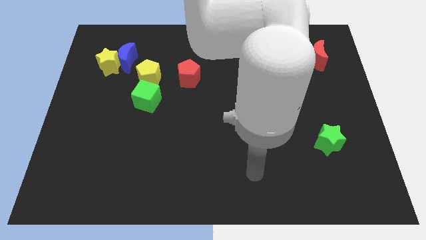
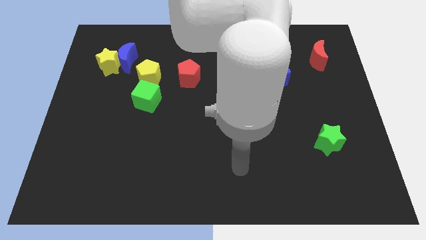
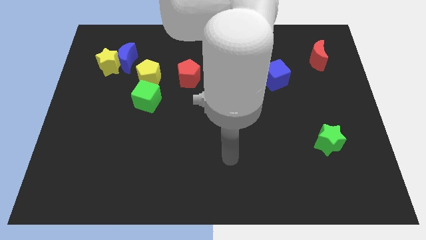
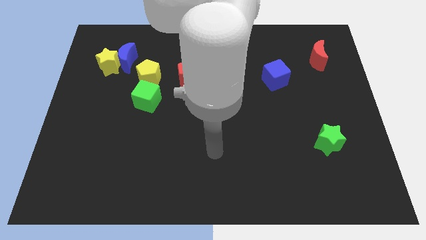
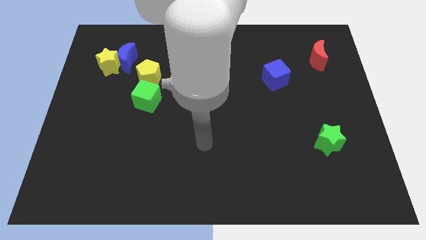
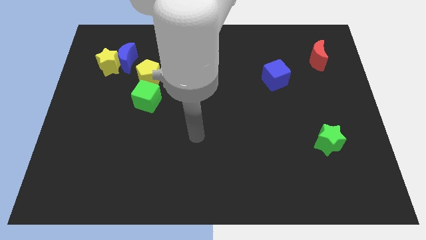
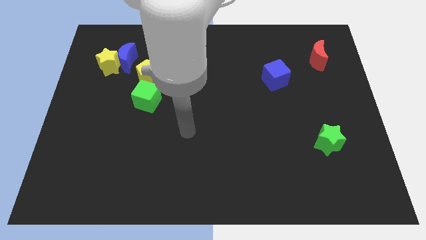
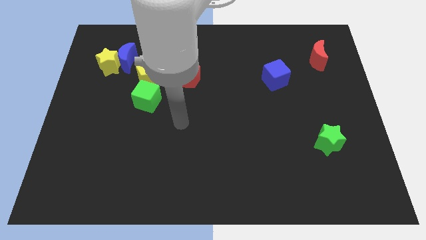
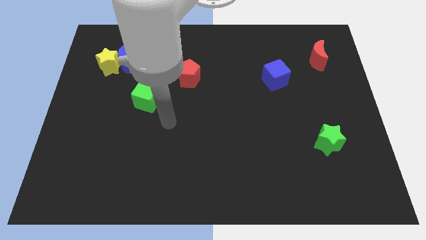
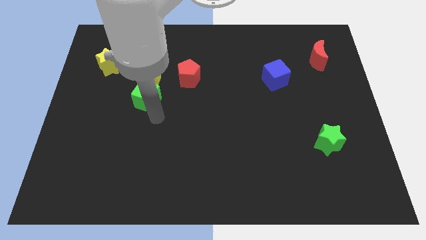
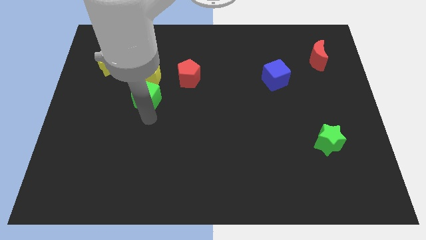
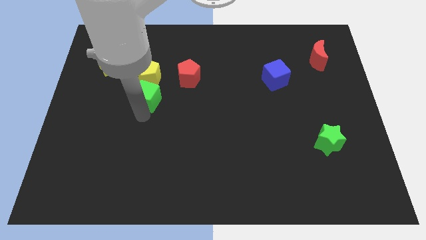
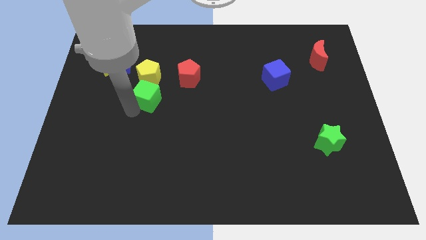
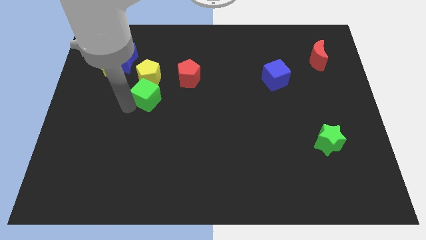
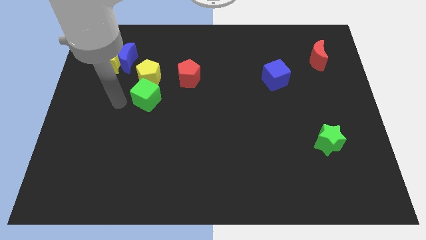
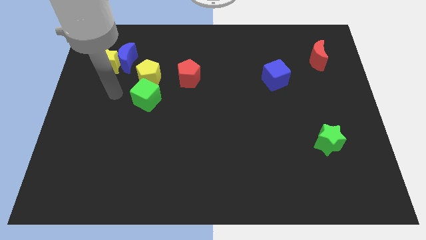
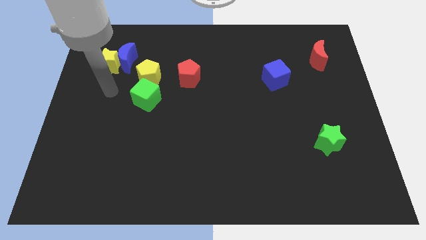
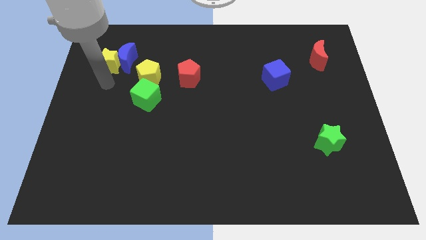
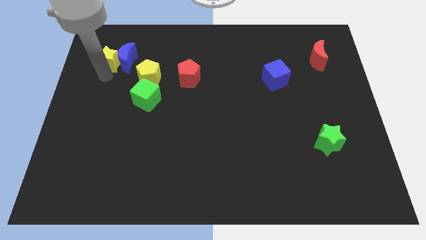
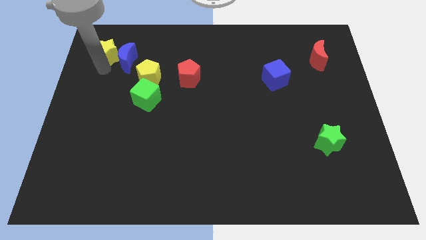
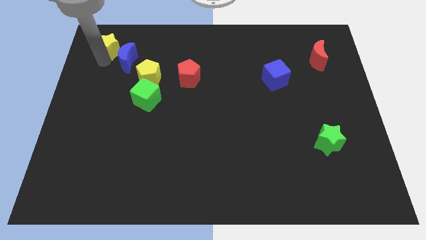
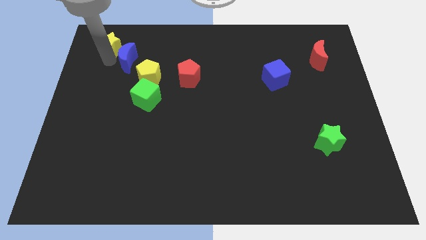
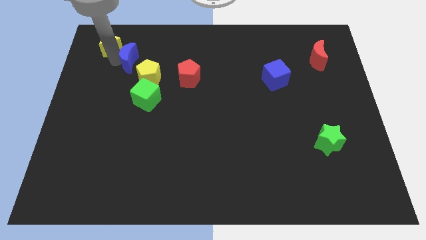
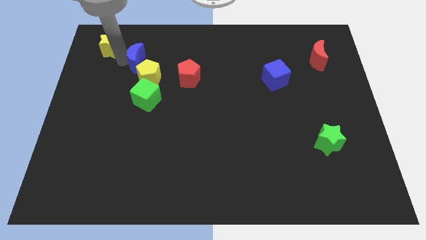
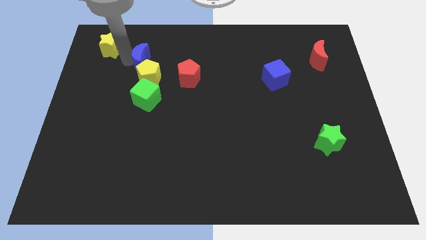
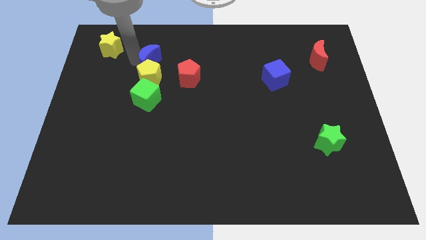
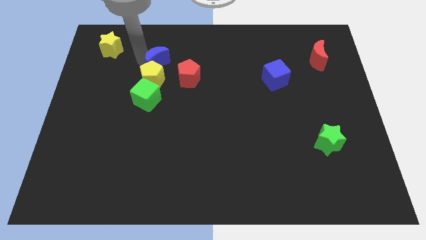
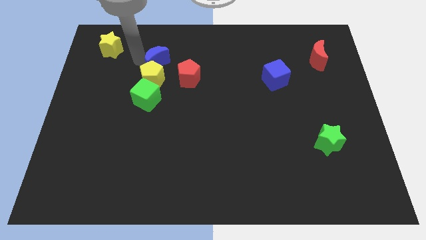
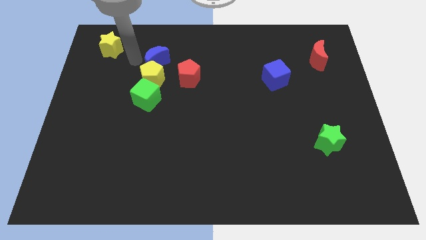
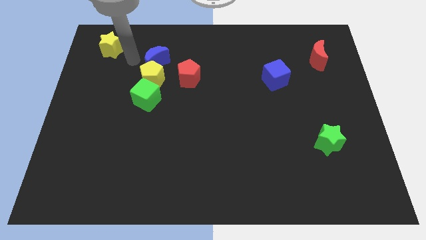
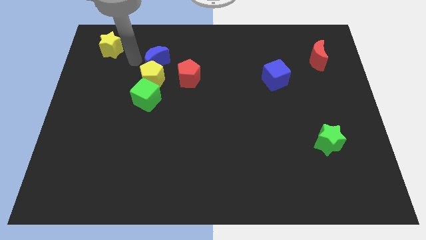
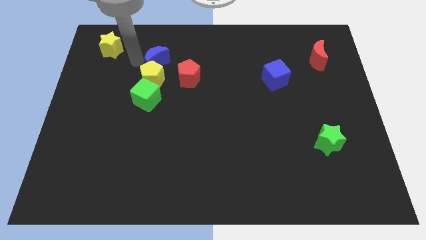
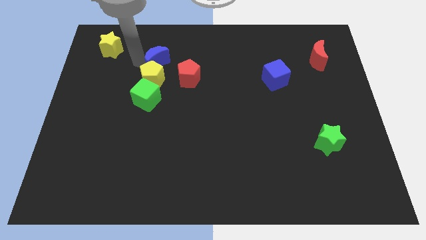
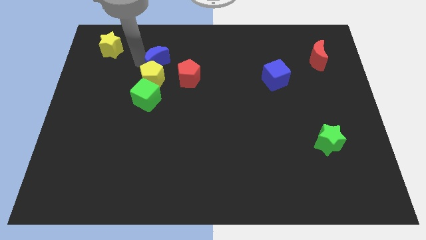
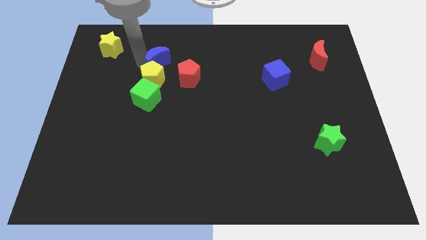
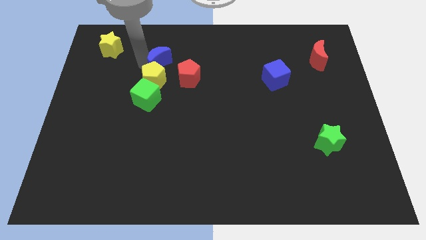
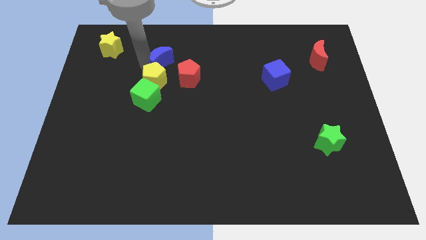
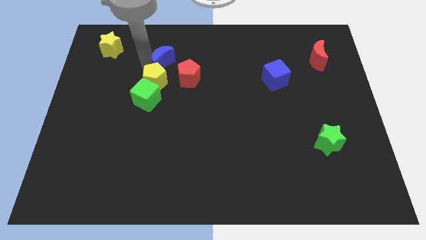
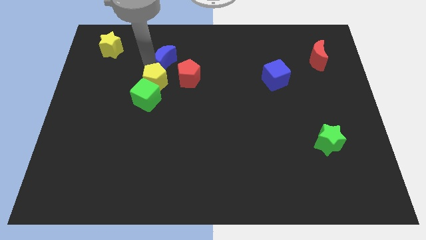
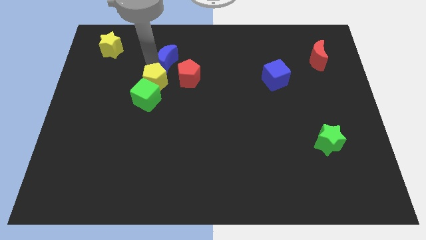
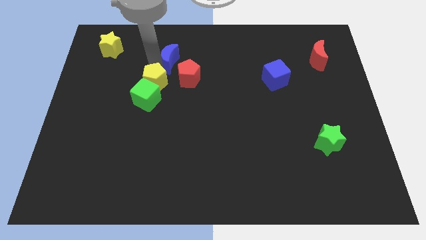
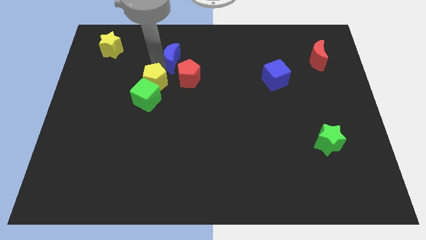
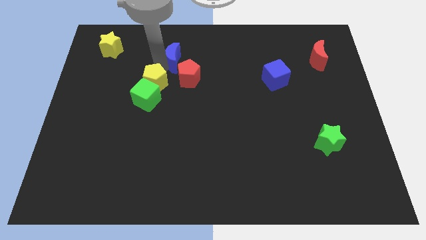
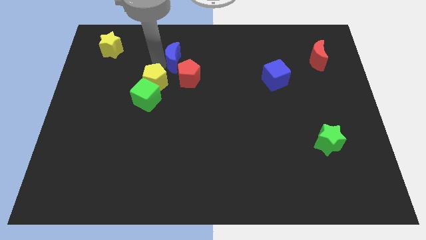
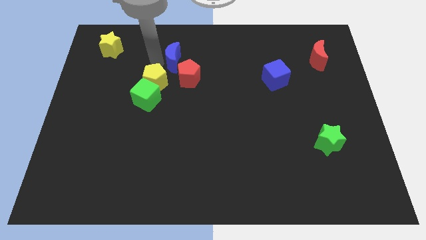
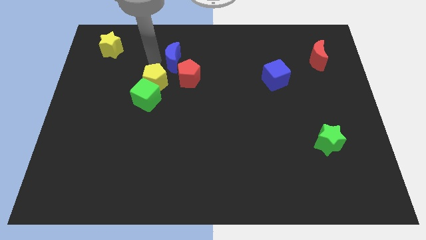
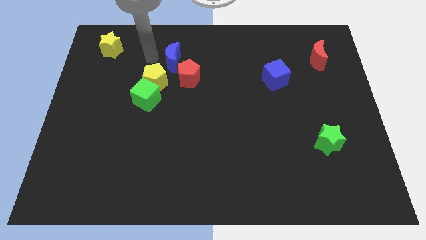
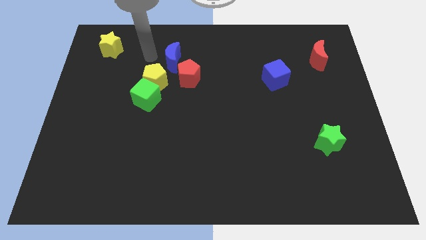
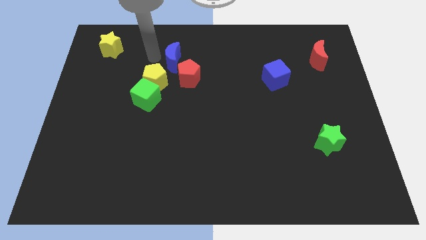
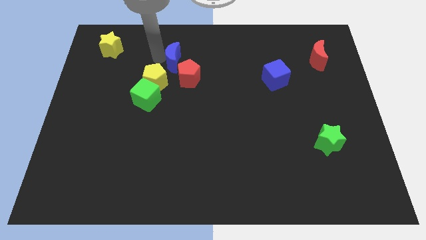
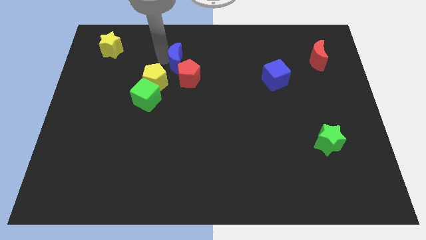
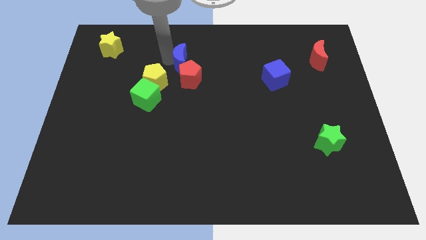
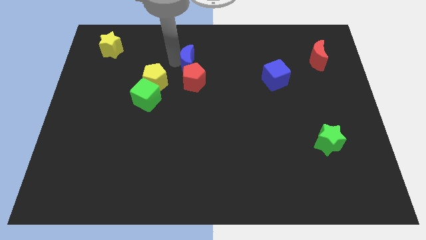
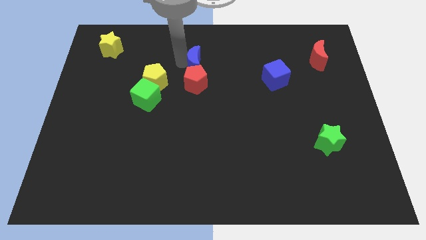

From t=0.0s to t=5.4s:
push the blue moon diagonally up and to the right of the red pentagon

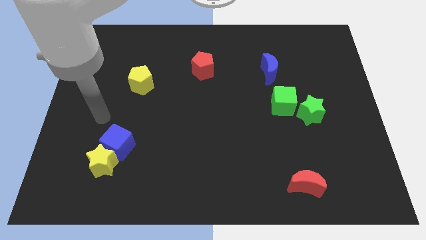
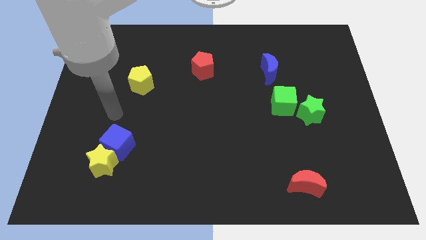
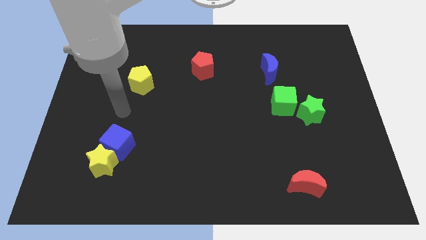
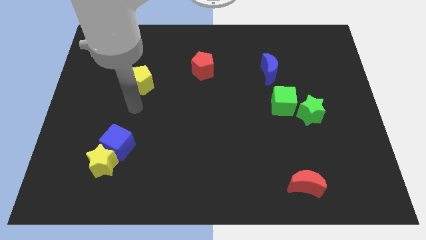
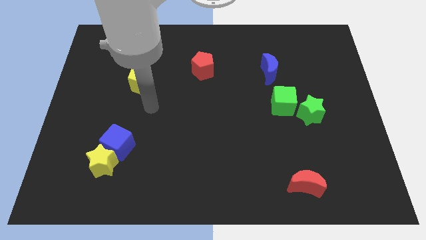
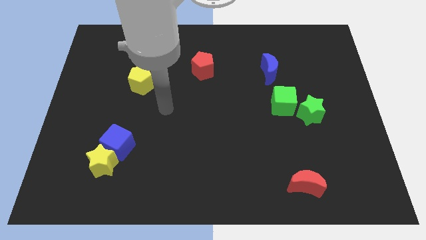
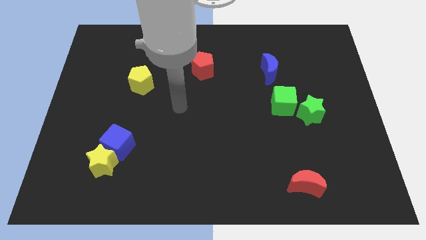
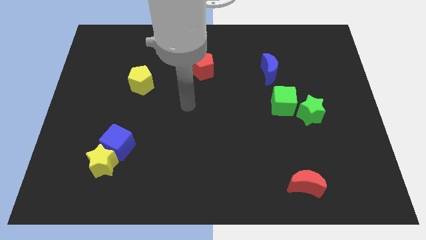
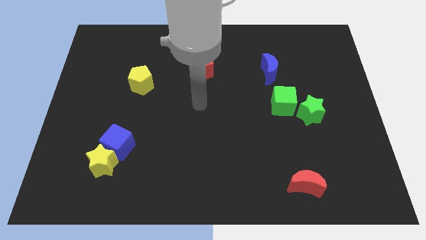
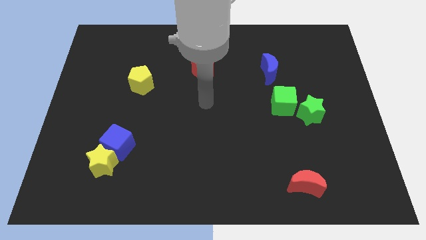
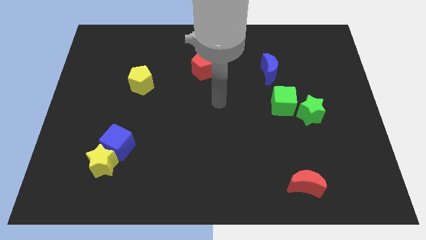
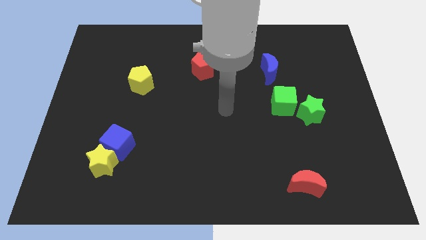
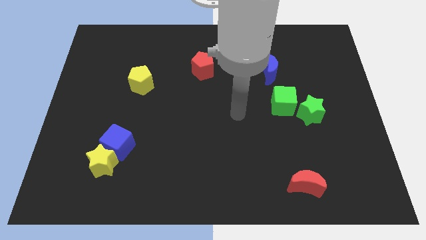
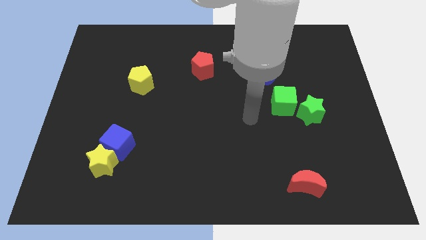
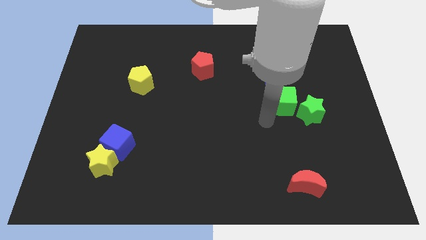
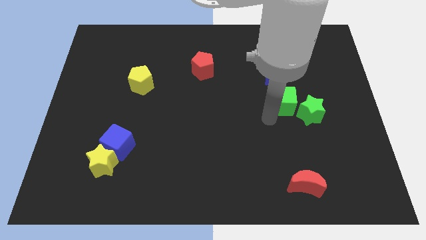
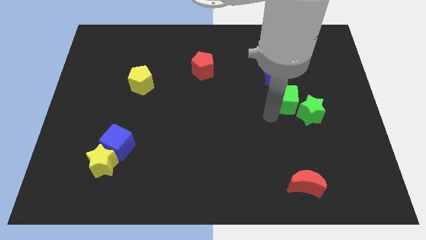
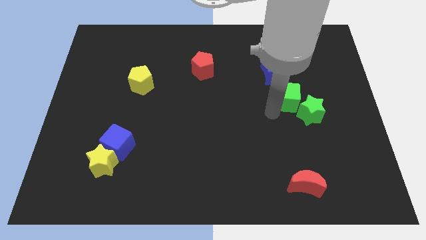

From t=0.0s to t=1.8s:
push the green cube above the green star

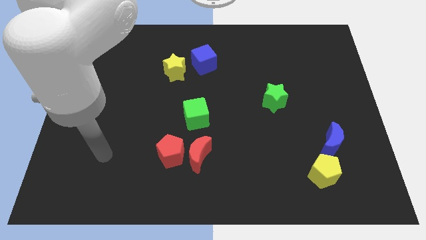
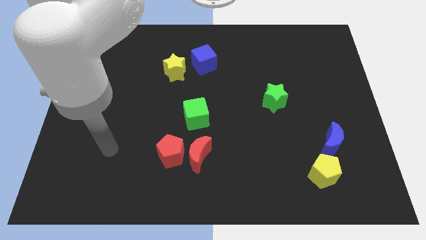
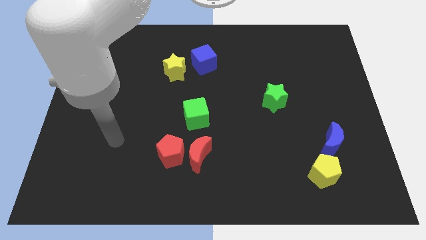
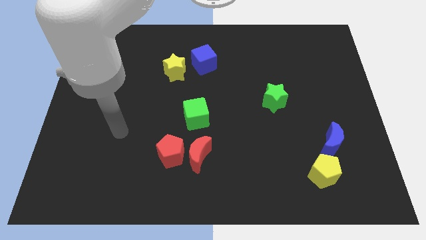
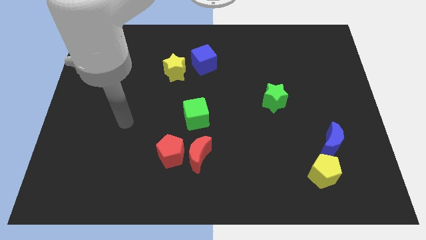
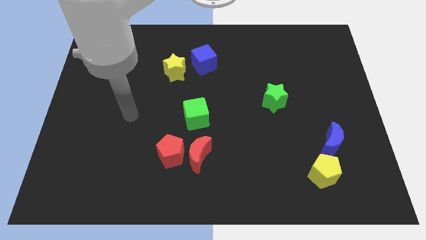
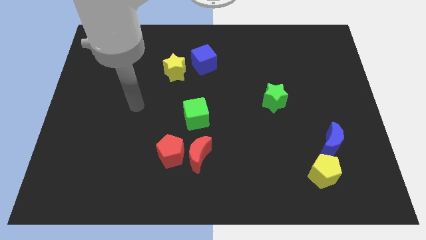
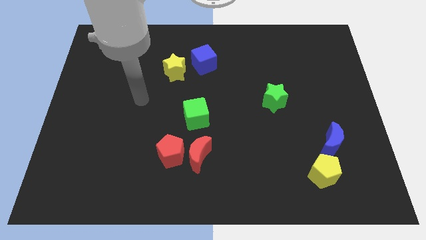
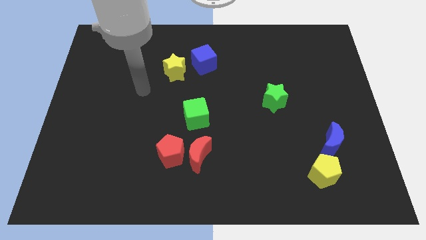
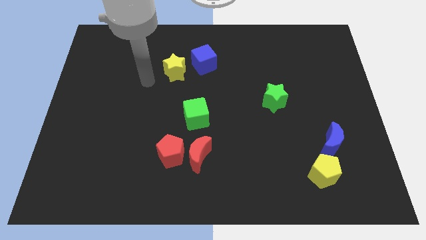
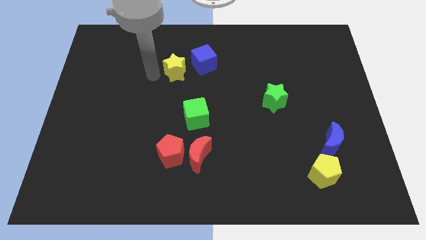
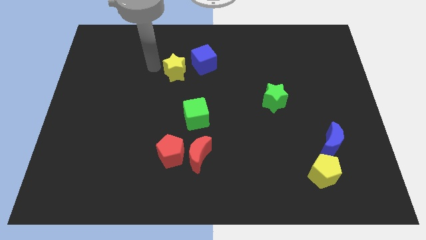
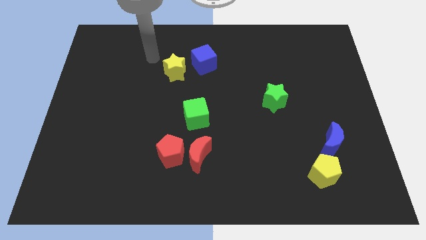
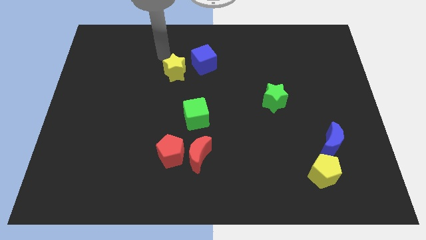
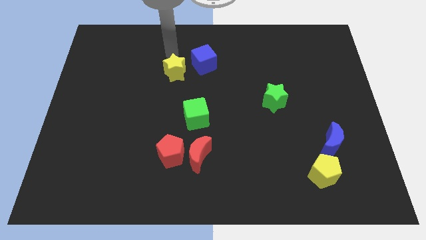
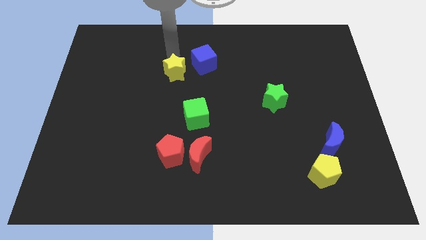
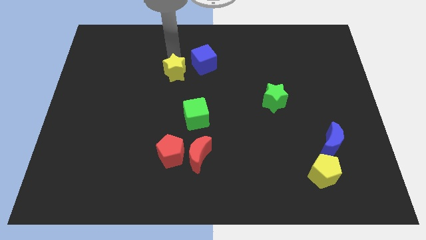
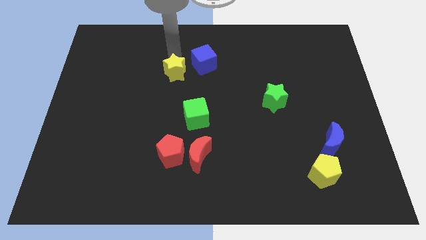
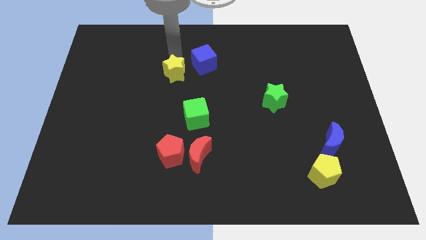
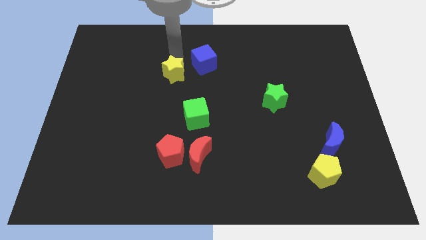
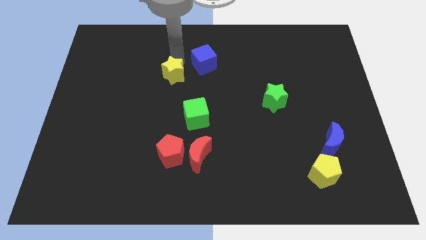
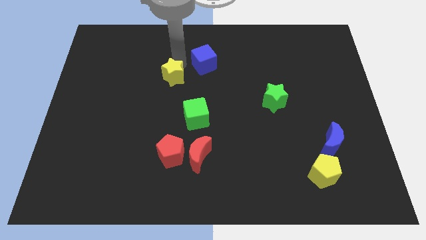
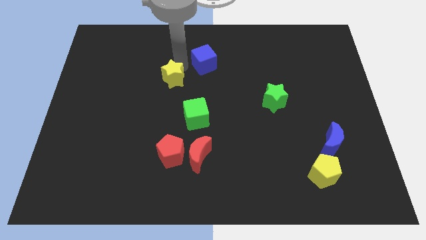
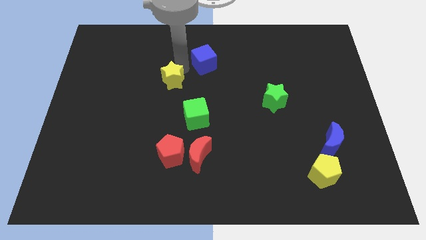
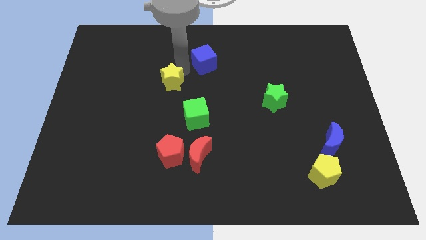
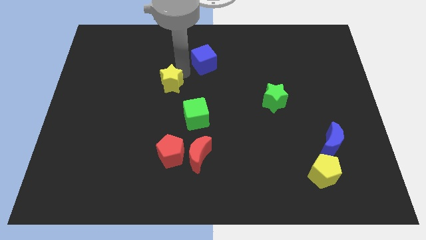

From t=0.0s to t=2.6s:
push the yellow star to the top left side of the green cube
